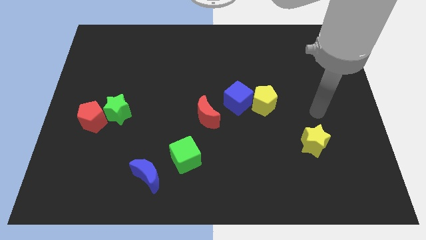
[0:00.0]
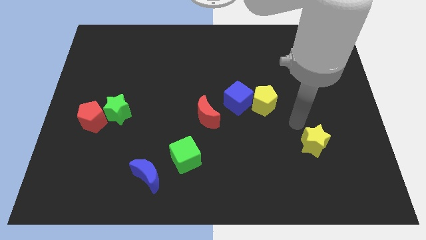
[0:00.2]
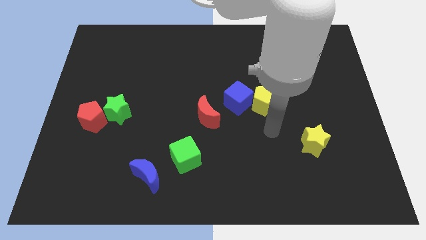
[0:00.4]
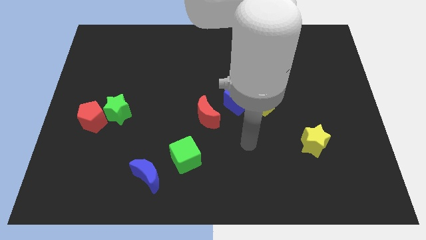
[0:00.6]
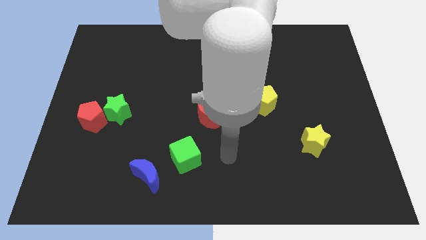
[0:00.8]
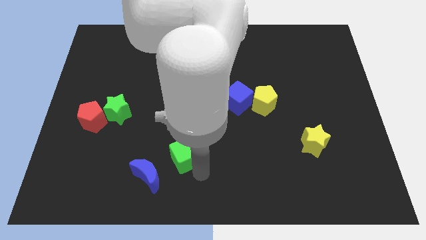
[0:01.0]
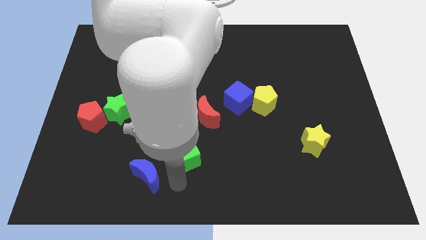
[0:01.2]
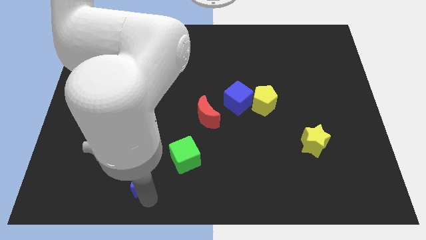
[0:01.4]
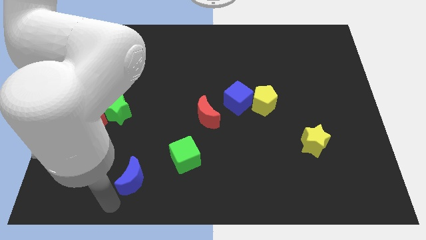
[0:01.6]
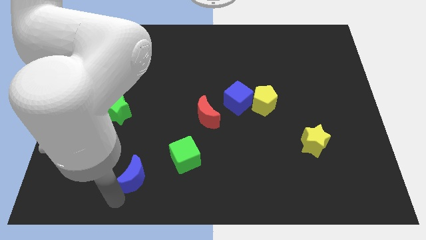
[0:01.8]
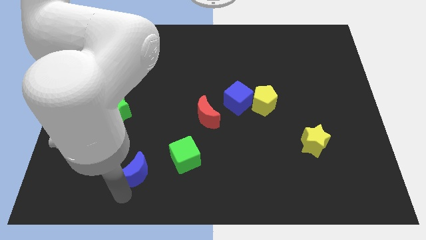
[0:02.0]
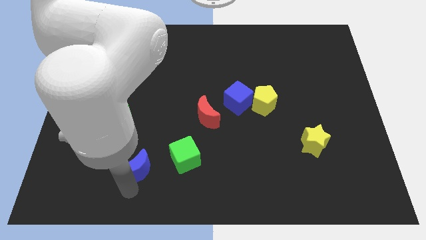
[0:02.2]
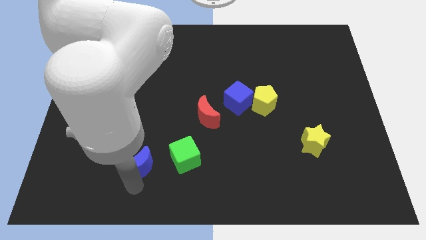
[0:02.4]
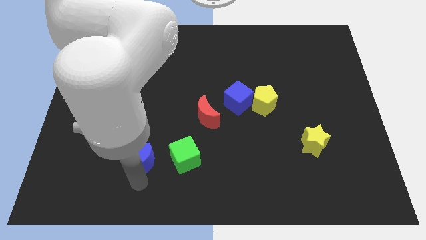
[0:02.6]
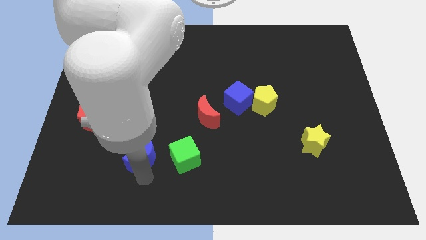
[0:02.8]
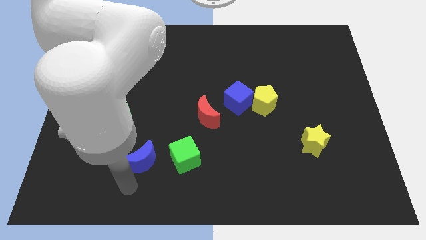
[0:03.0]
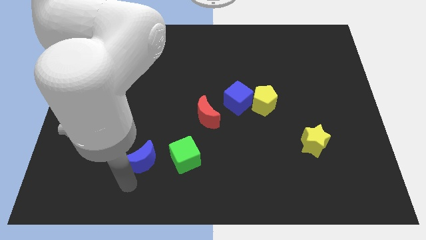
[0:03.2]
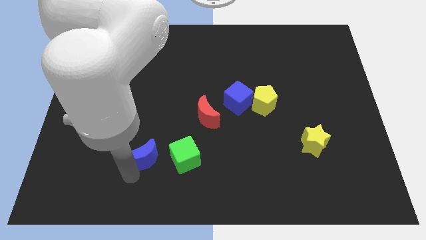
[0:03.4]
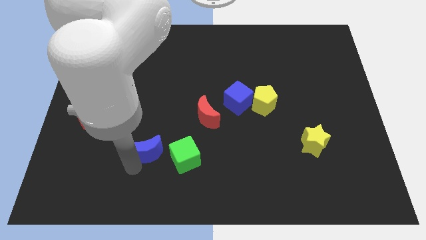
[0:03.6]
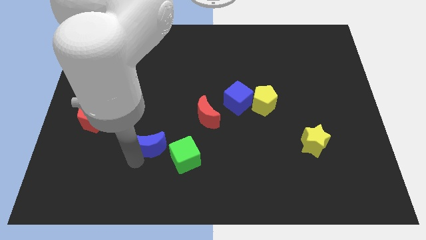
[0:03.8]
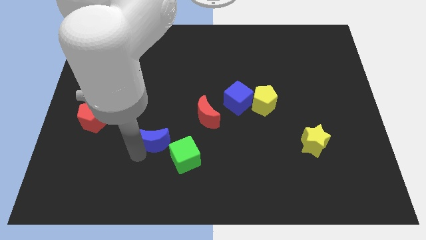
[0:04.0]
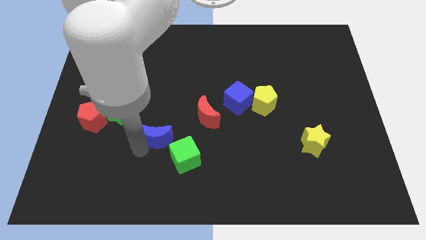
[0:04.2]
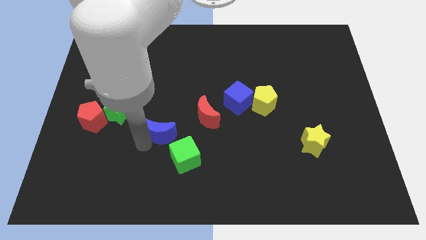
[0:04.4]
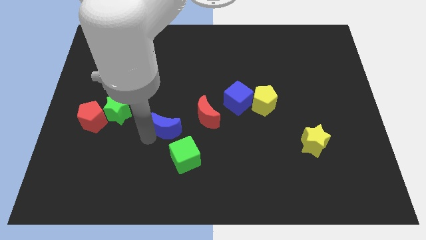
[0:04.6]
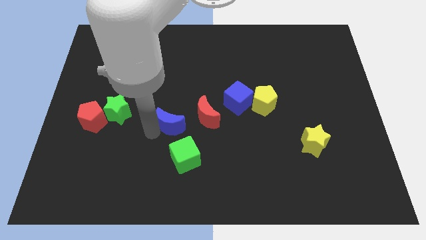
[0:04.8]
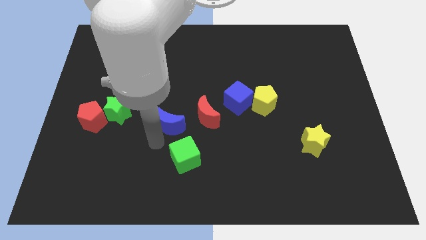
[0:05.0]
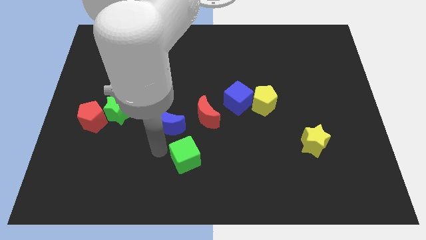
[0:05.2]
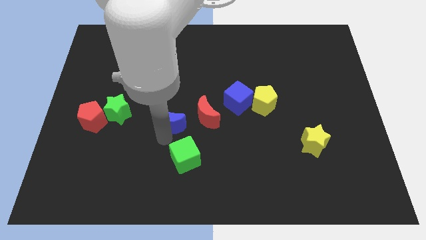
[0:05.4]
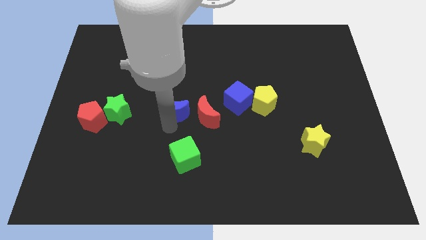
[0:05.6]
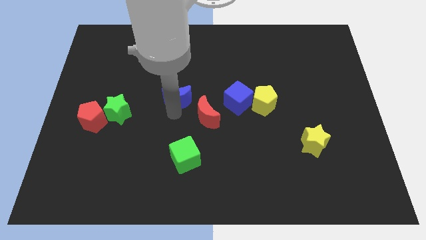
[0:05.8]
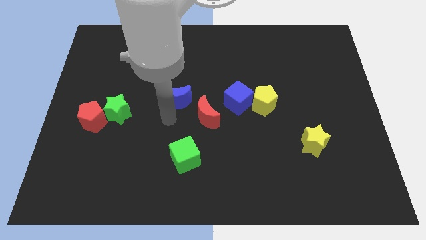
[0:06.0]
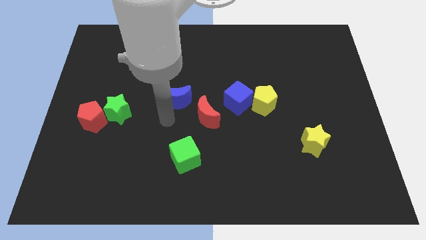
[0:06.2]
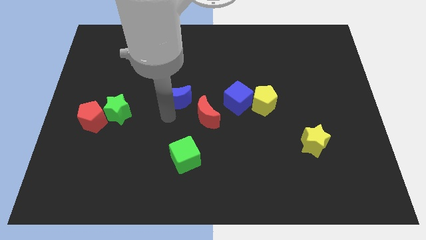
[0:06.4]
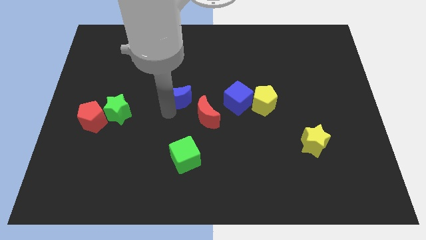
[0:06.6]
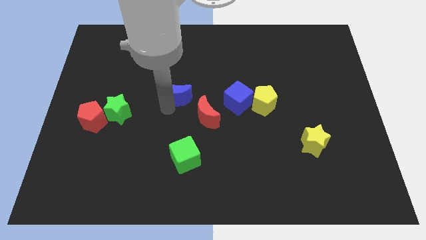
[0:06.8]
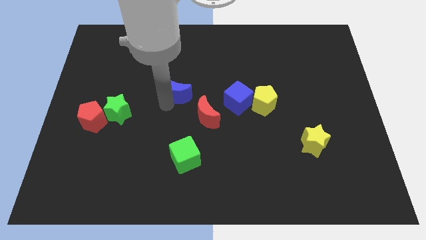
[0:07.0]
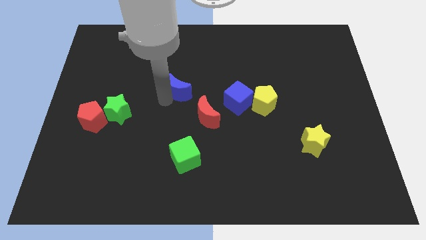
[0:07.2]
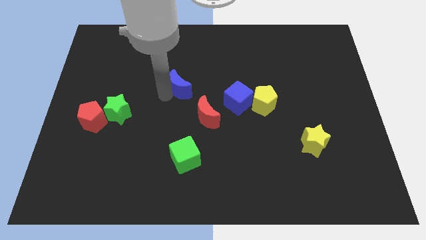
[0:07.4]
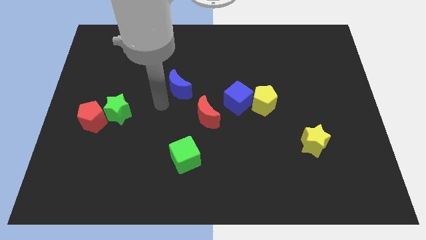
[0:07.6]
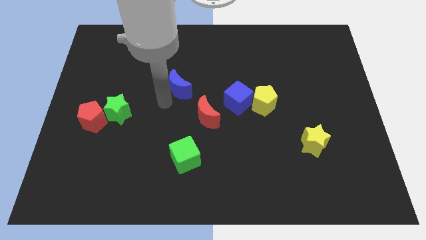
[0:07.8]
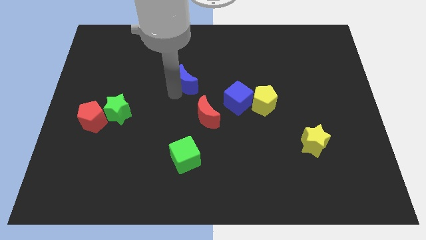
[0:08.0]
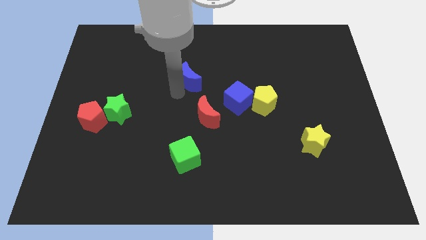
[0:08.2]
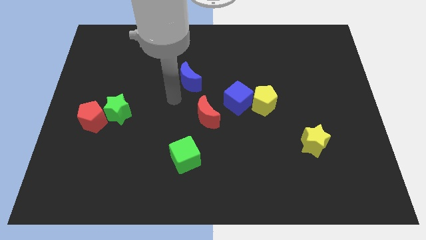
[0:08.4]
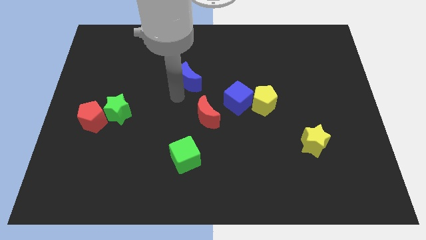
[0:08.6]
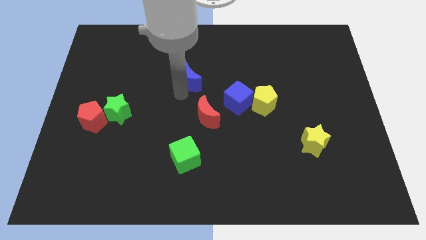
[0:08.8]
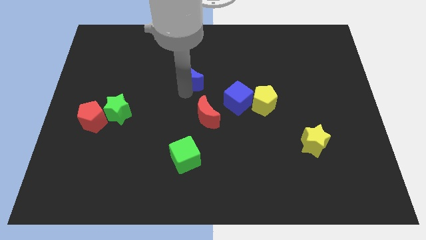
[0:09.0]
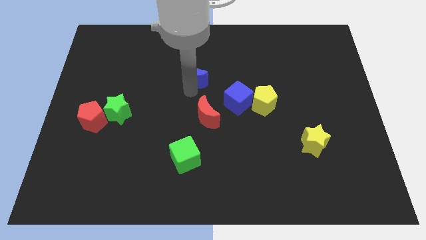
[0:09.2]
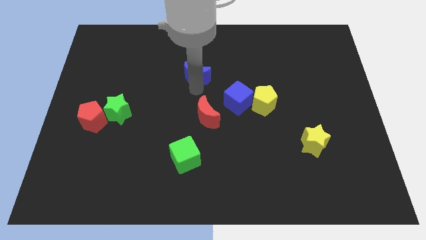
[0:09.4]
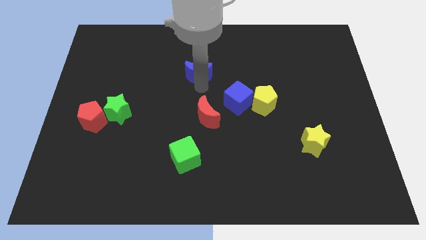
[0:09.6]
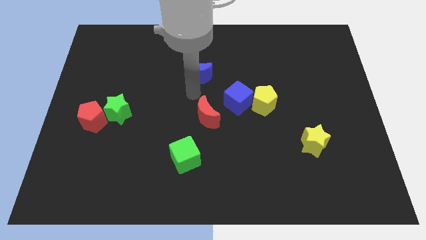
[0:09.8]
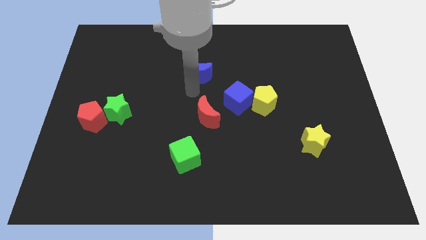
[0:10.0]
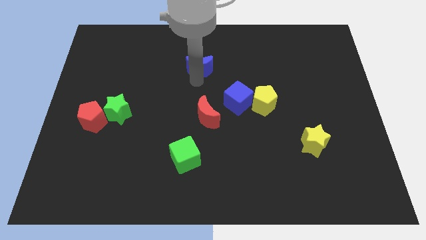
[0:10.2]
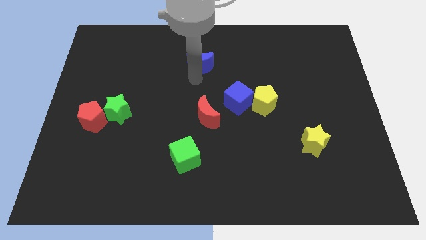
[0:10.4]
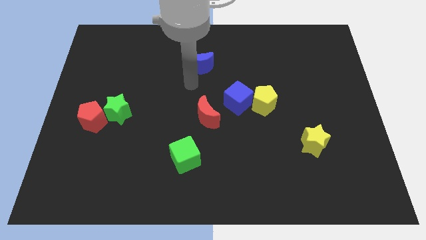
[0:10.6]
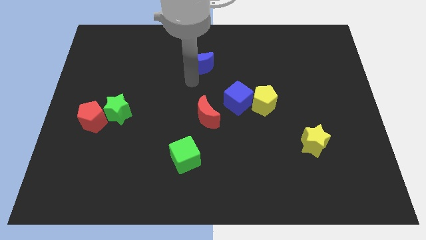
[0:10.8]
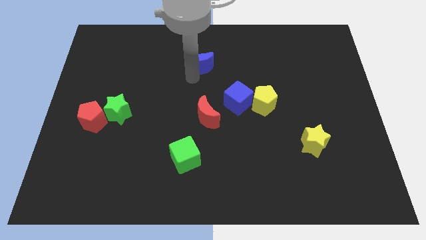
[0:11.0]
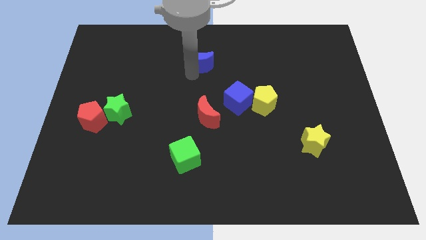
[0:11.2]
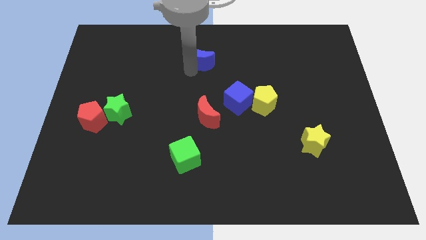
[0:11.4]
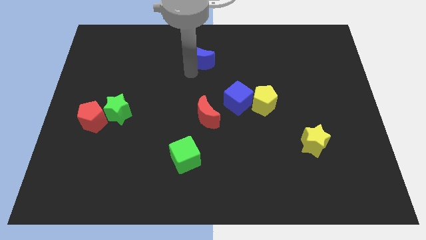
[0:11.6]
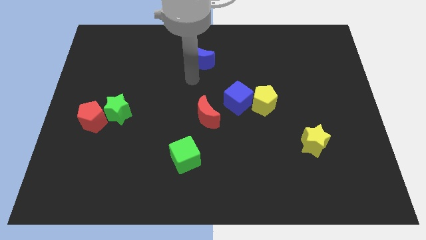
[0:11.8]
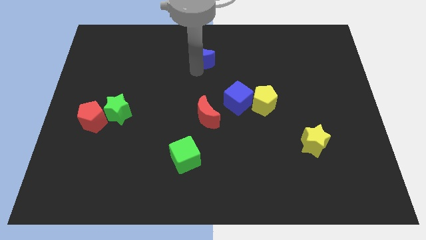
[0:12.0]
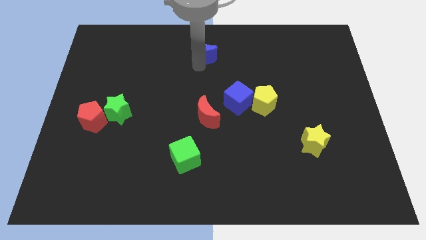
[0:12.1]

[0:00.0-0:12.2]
push the blue moon to the top side

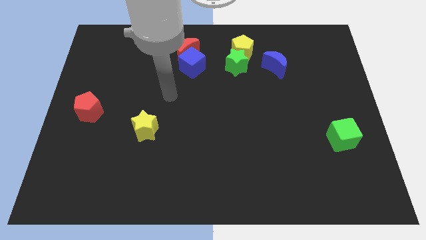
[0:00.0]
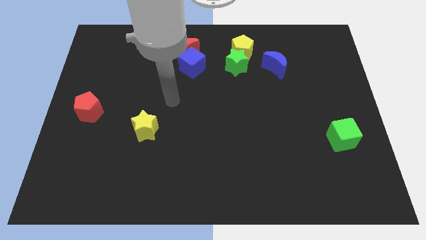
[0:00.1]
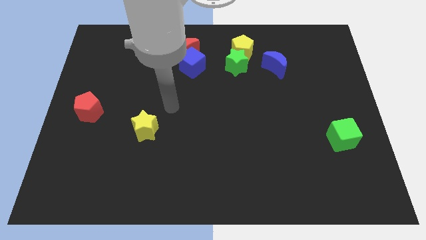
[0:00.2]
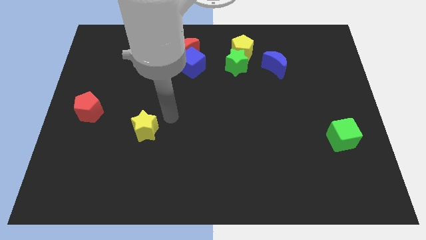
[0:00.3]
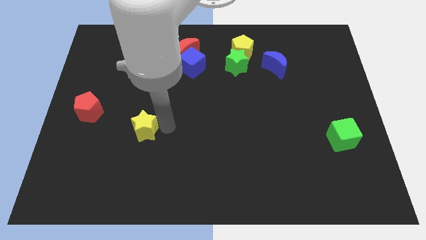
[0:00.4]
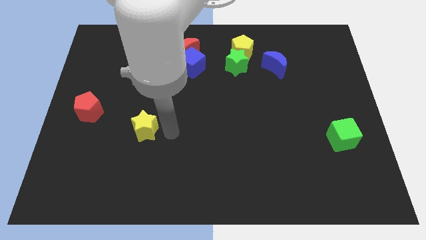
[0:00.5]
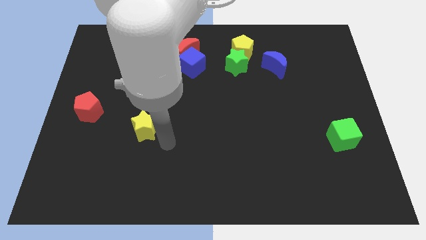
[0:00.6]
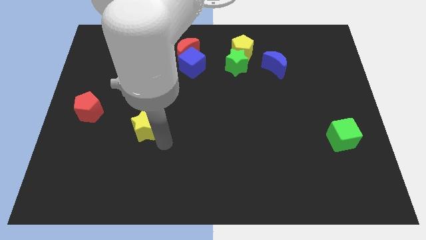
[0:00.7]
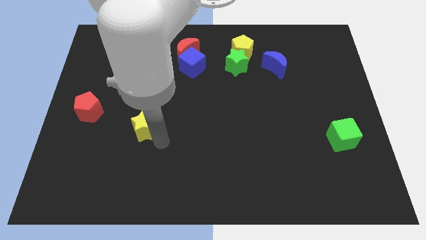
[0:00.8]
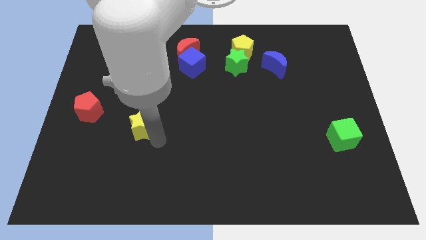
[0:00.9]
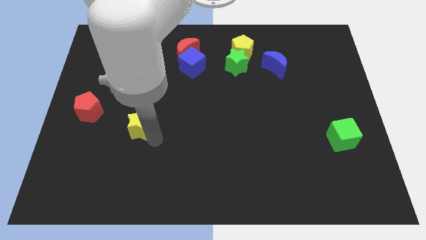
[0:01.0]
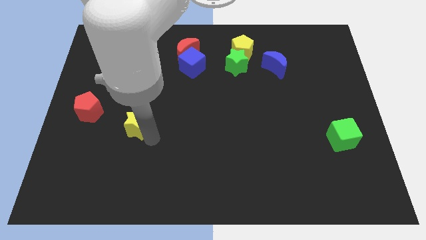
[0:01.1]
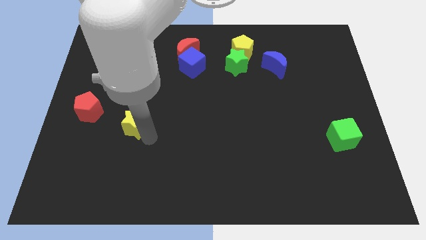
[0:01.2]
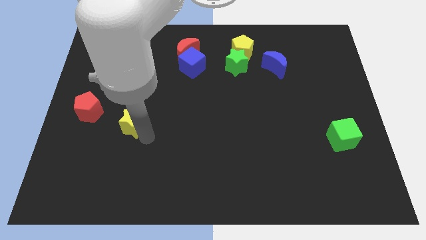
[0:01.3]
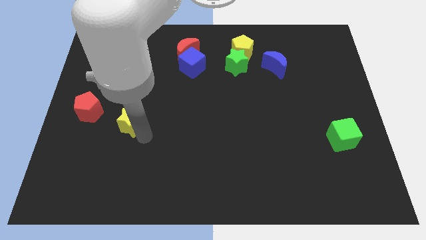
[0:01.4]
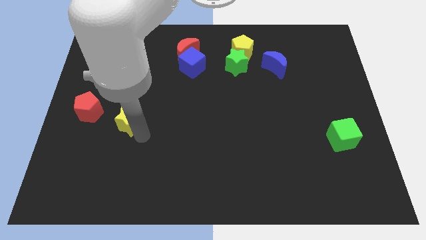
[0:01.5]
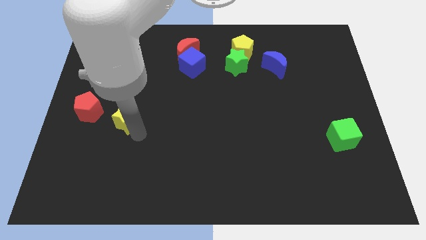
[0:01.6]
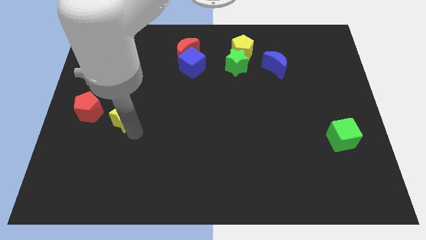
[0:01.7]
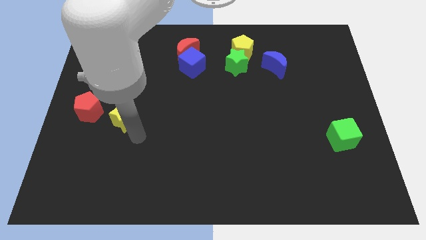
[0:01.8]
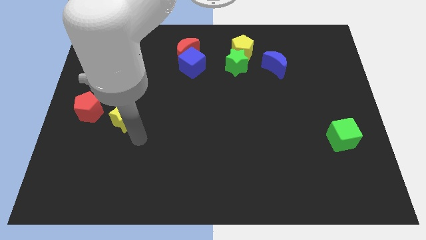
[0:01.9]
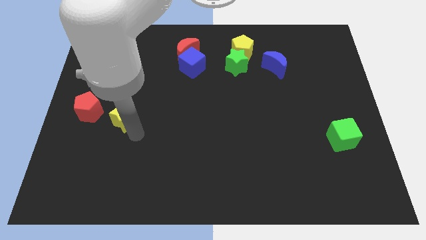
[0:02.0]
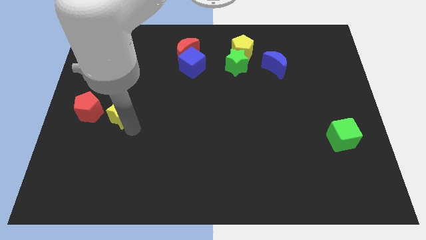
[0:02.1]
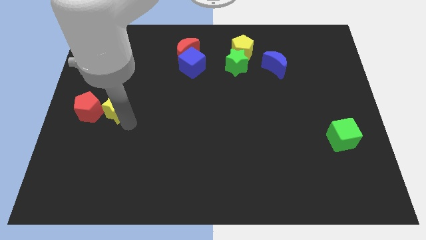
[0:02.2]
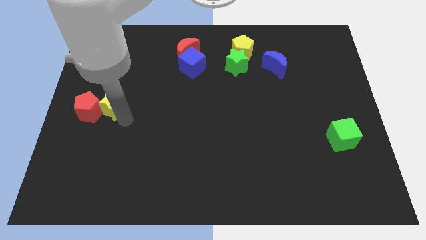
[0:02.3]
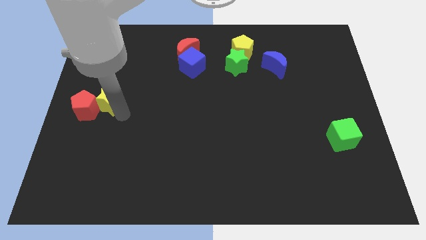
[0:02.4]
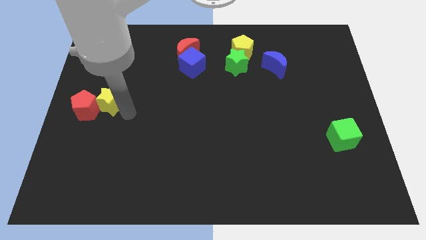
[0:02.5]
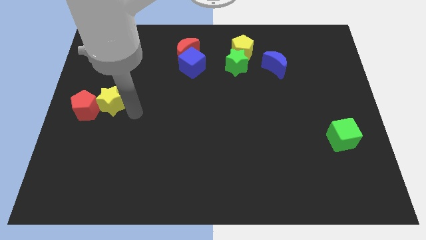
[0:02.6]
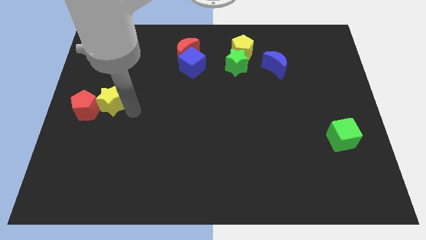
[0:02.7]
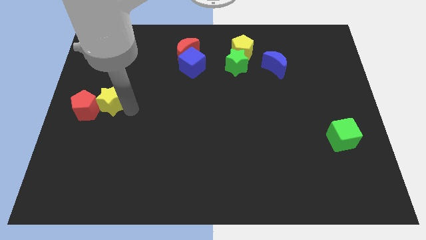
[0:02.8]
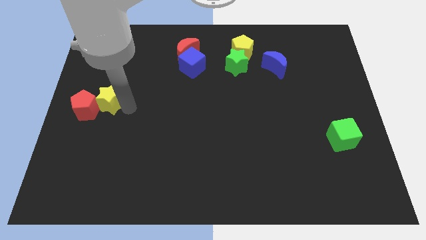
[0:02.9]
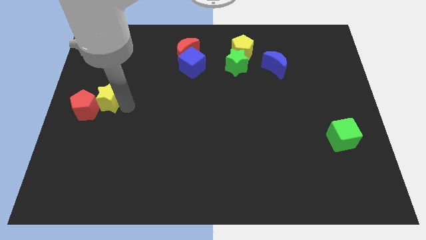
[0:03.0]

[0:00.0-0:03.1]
slide the yellow star to the left side
